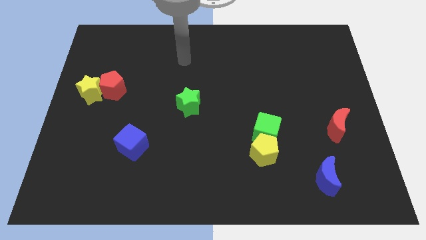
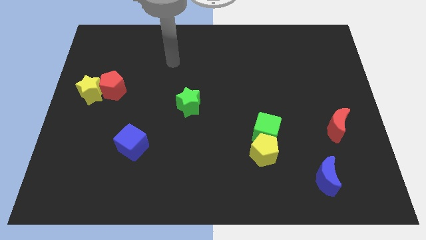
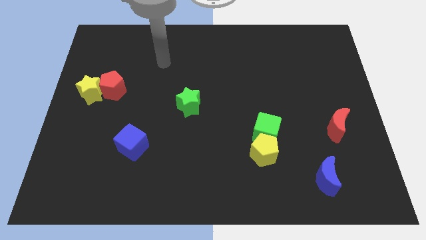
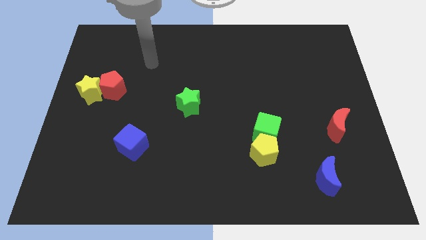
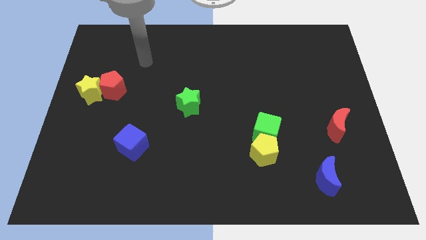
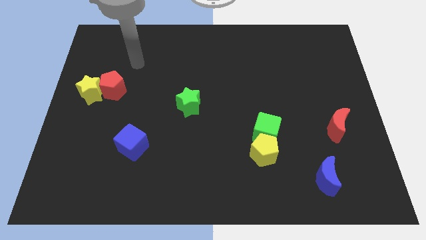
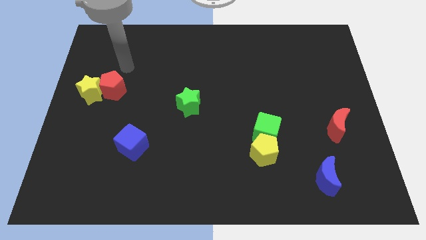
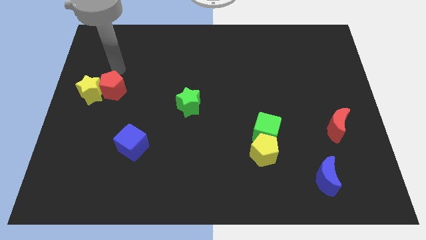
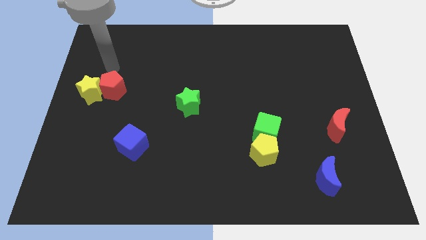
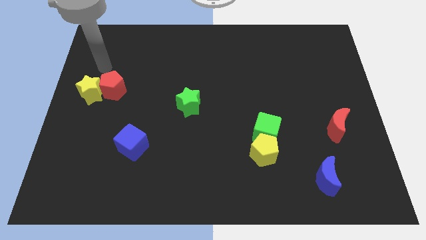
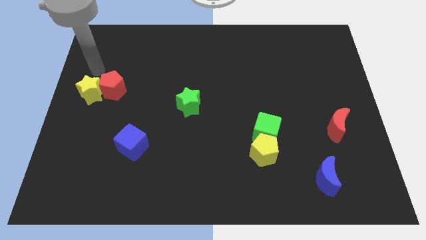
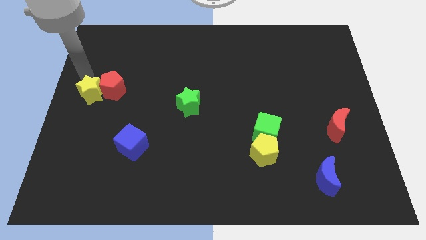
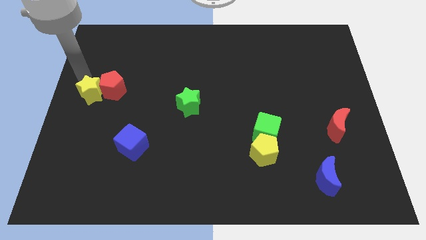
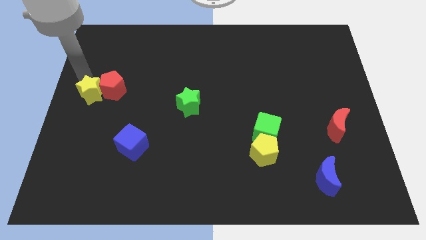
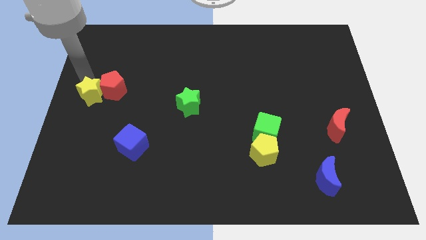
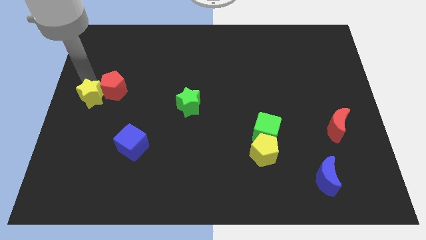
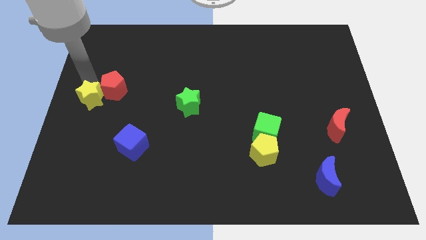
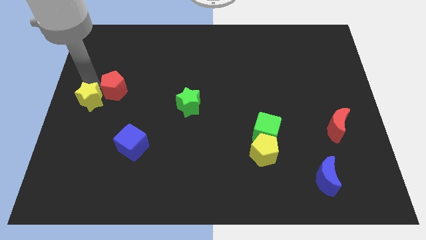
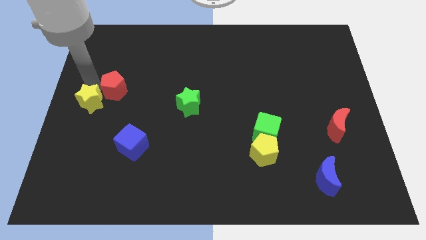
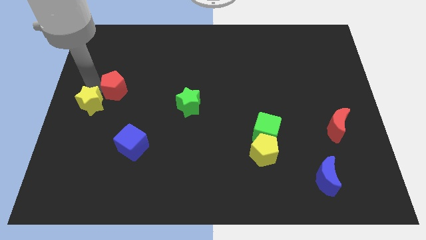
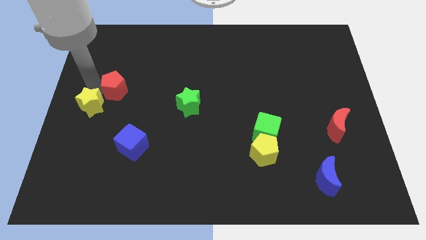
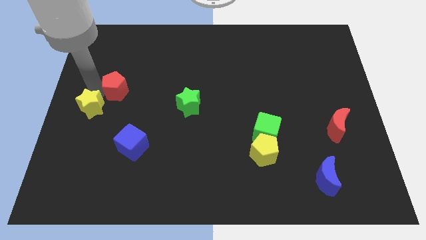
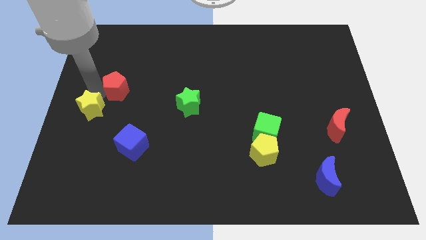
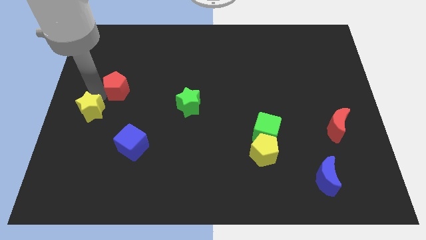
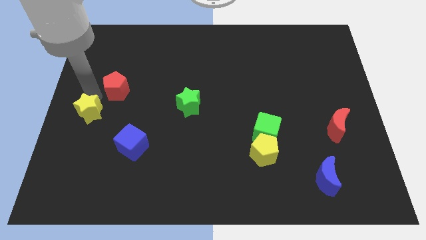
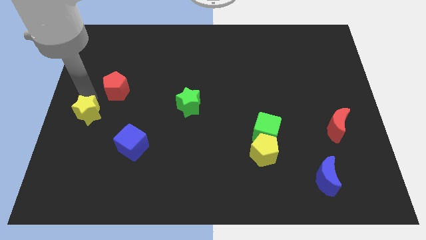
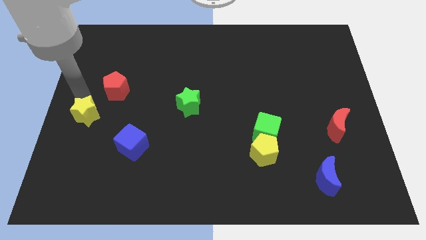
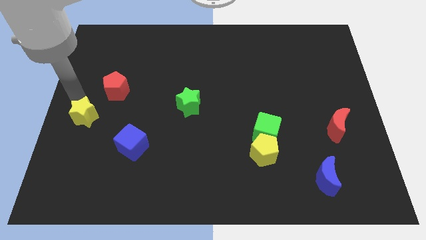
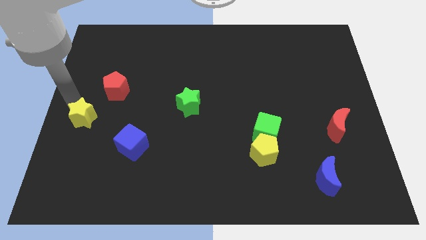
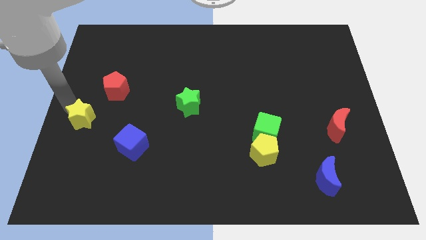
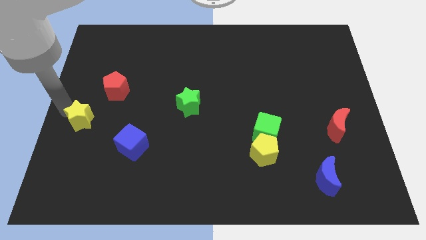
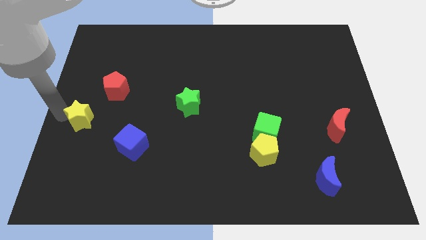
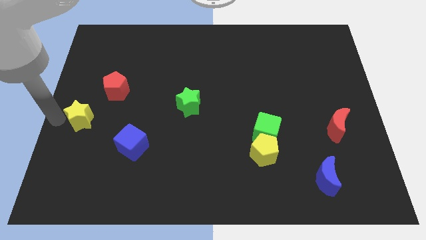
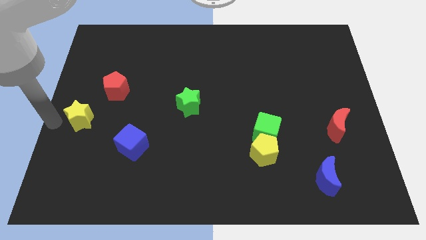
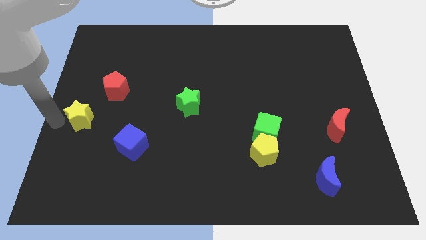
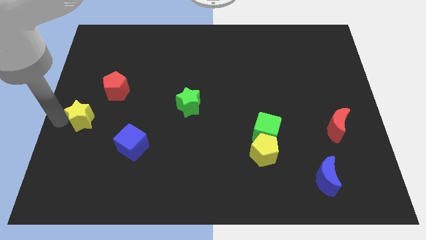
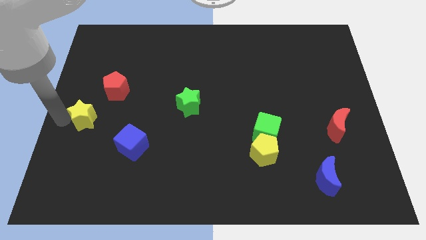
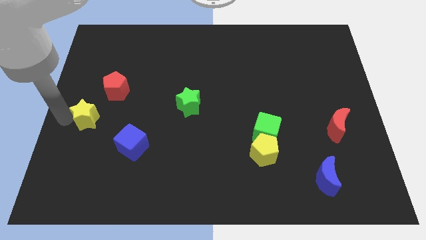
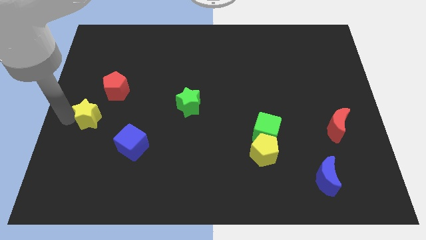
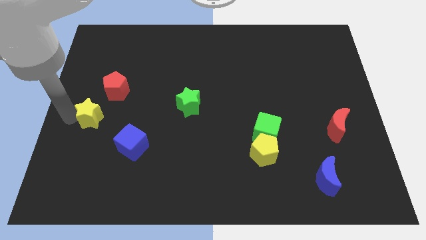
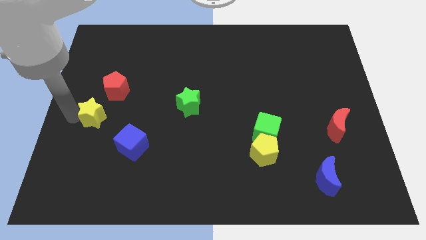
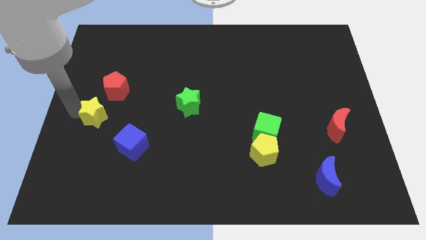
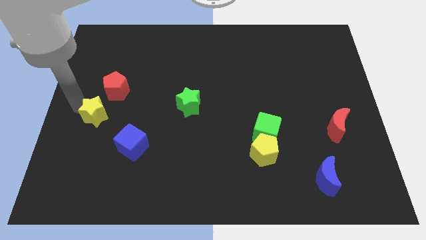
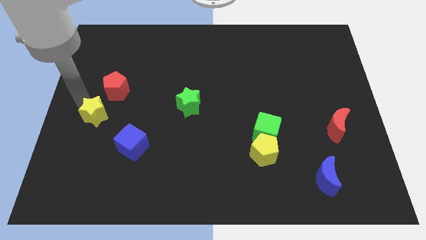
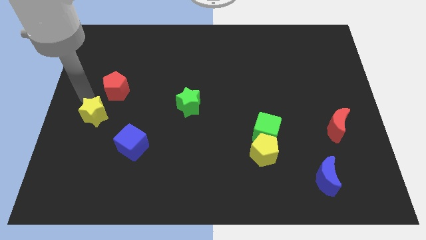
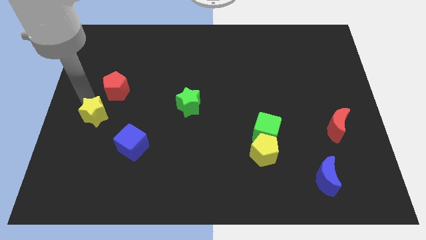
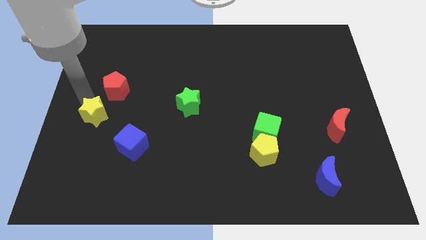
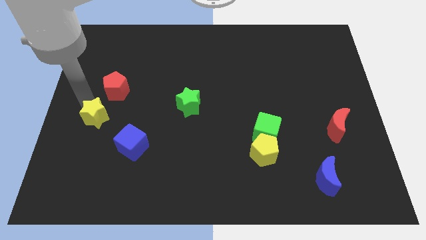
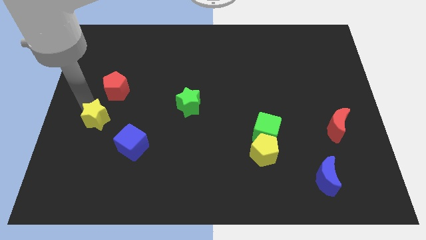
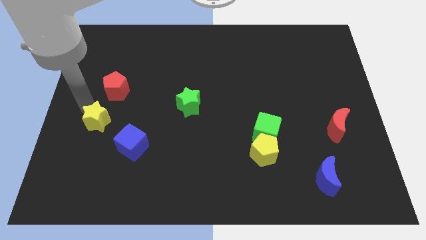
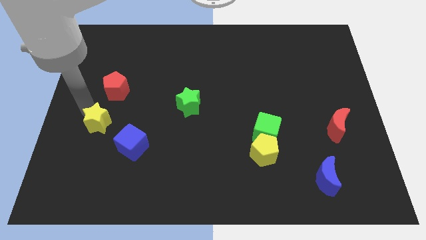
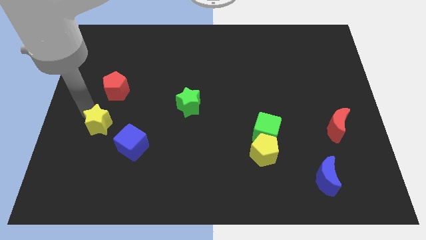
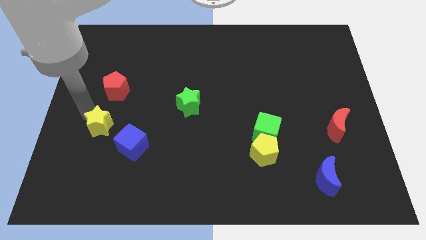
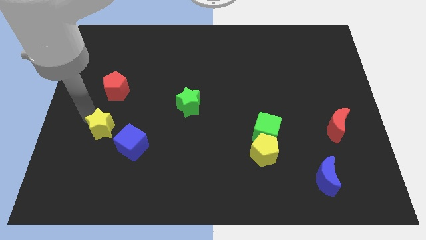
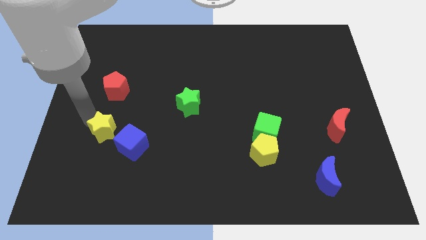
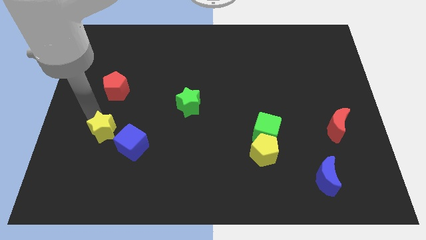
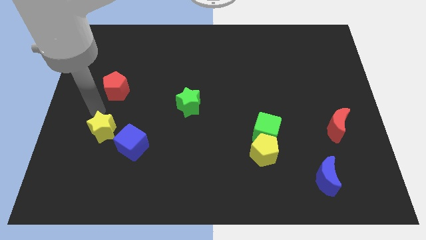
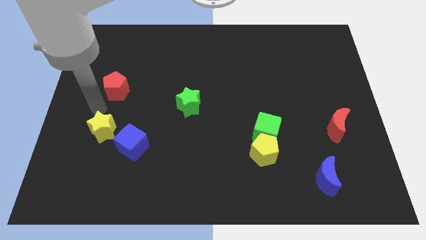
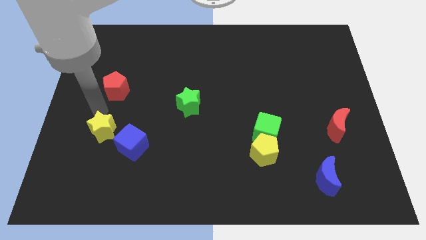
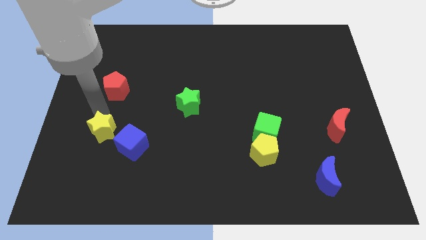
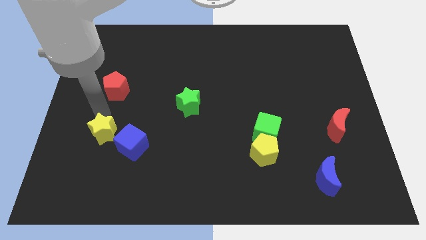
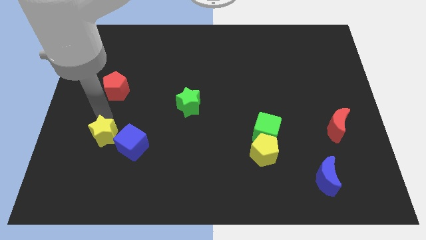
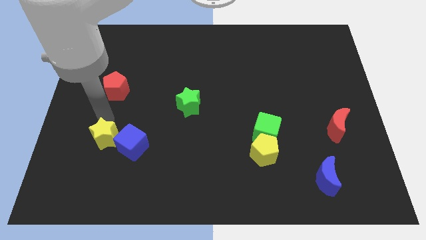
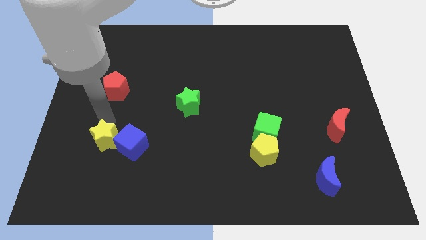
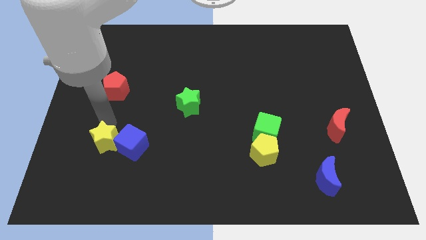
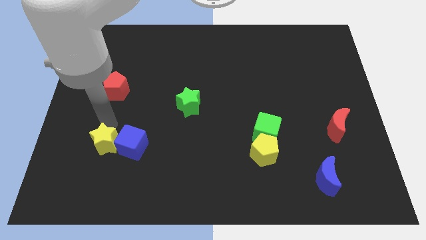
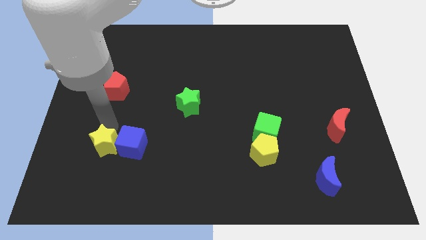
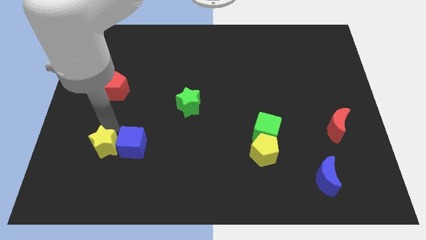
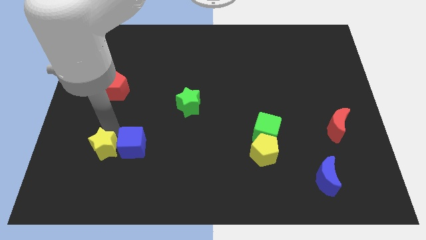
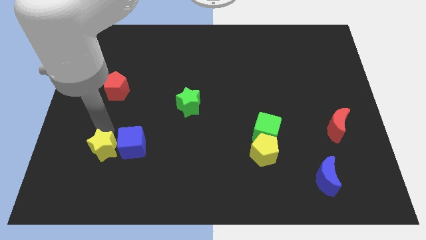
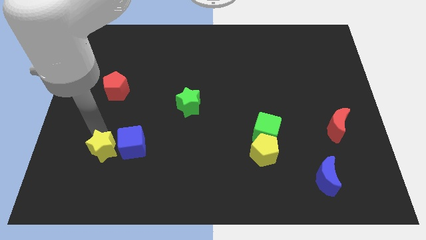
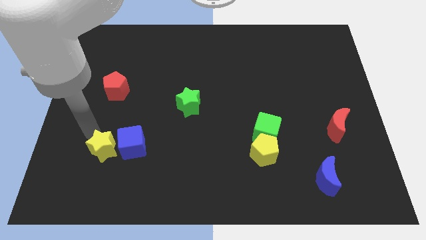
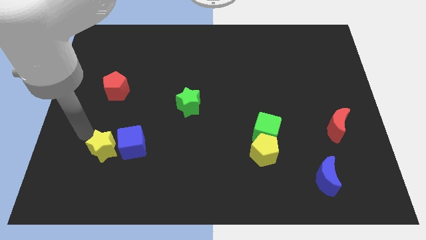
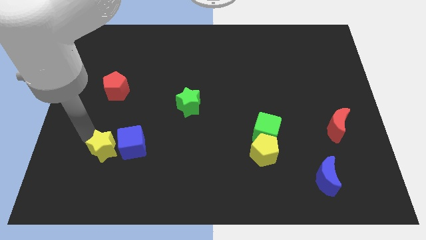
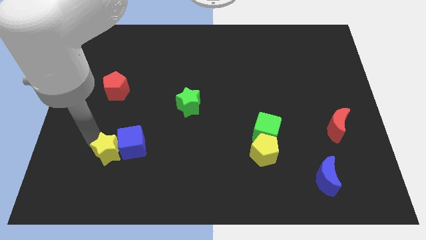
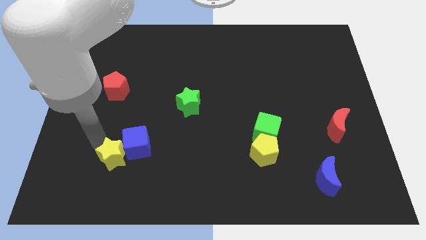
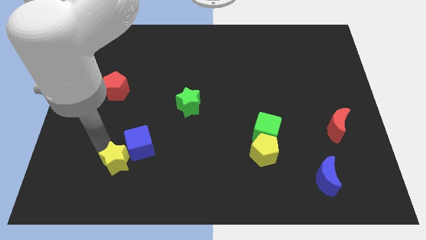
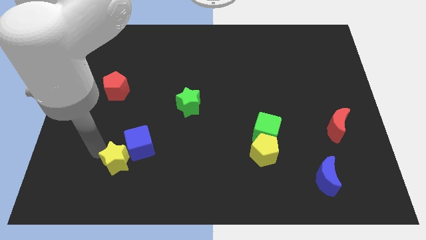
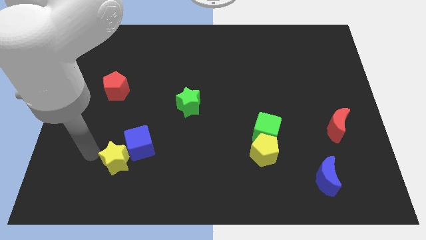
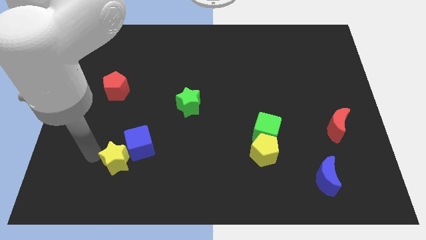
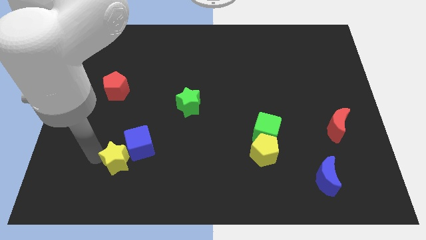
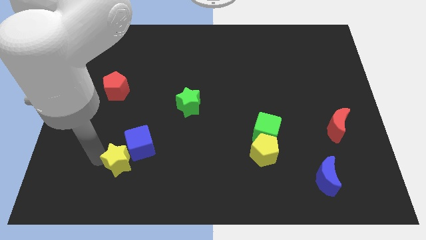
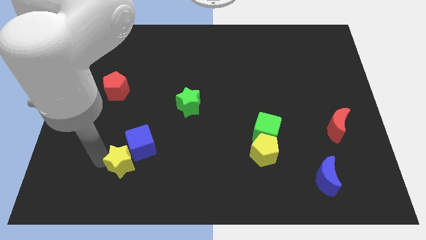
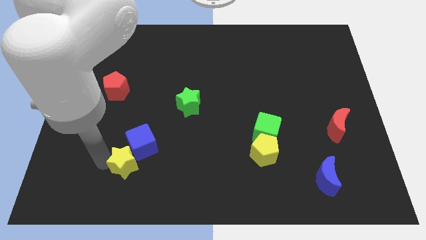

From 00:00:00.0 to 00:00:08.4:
slide the yellow star down and then to the right
